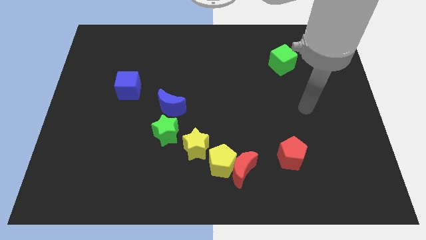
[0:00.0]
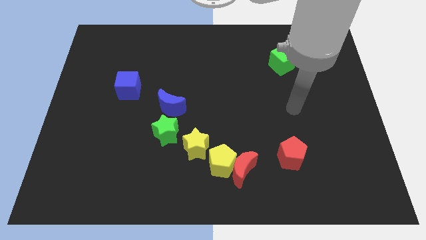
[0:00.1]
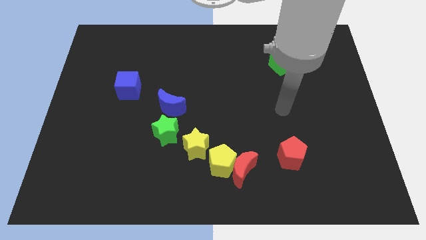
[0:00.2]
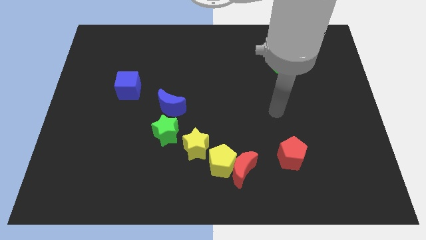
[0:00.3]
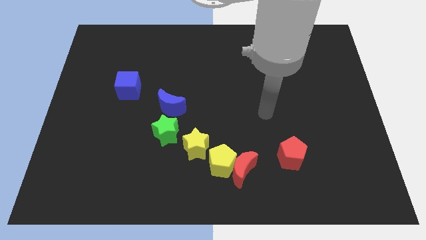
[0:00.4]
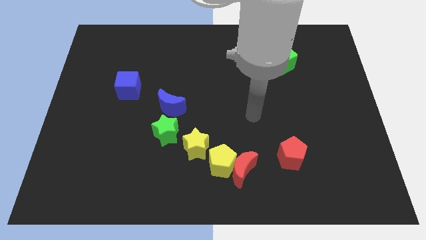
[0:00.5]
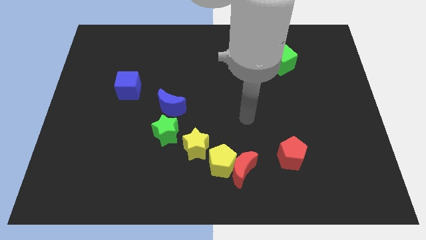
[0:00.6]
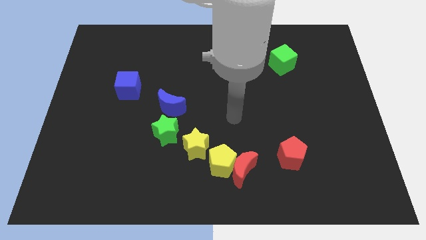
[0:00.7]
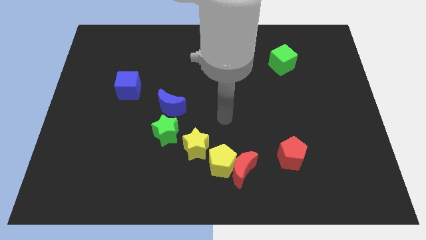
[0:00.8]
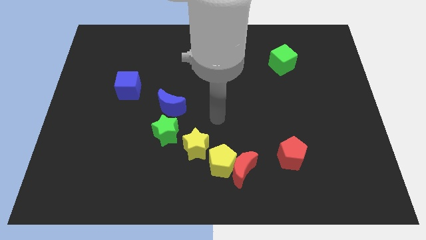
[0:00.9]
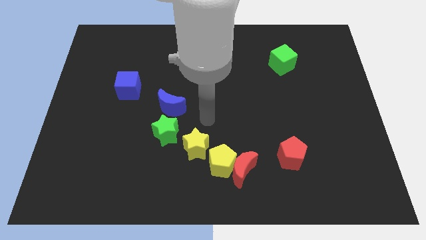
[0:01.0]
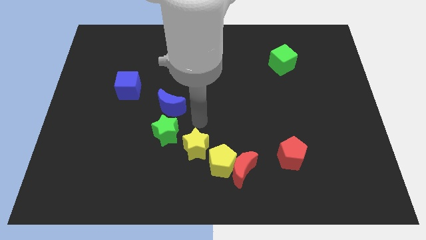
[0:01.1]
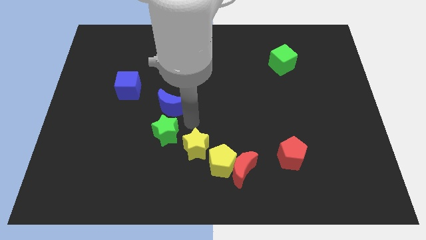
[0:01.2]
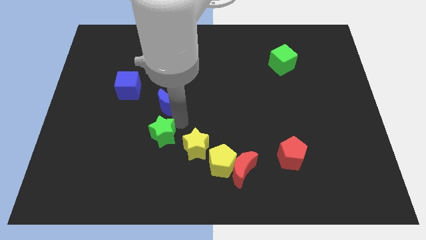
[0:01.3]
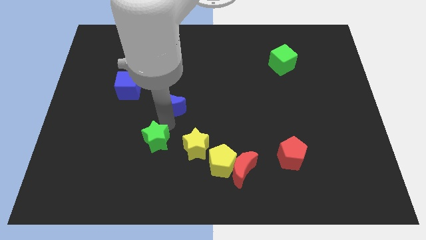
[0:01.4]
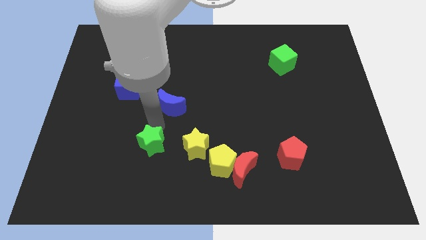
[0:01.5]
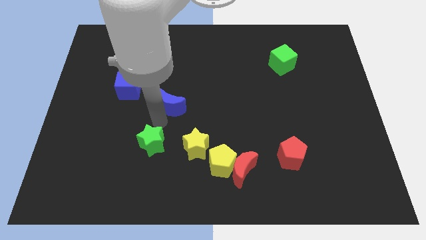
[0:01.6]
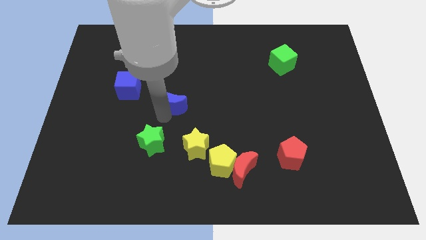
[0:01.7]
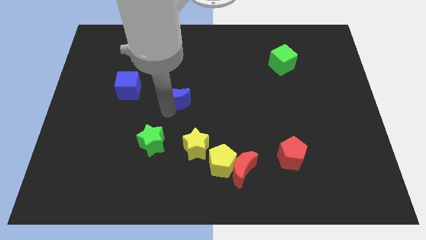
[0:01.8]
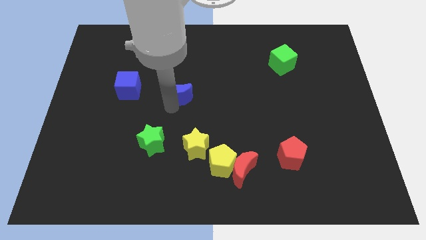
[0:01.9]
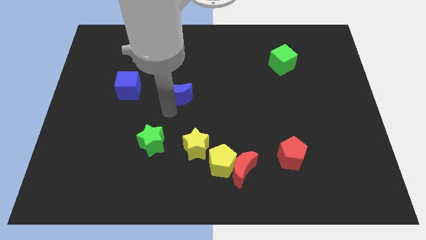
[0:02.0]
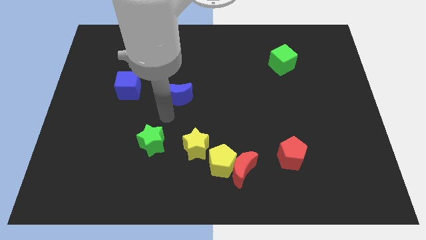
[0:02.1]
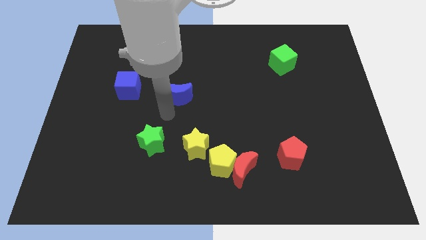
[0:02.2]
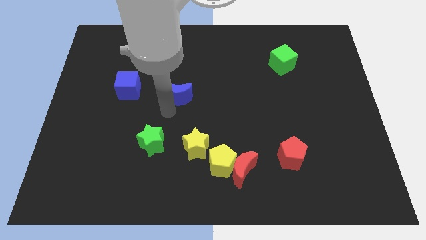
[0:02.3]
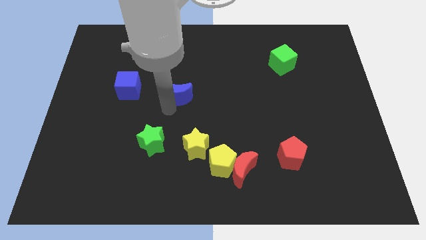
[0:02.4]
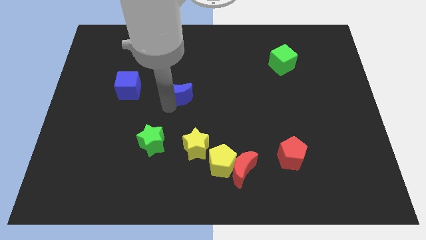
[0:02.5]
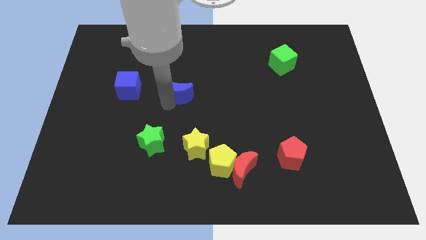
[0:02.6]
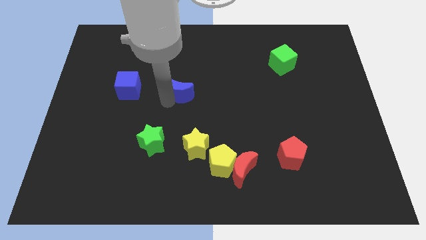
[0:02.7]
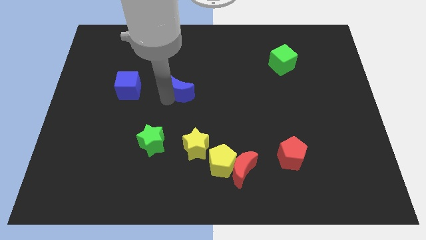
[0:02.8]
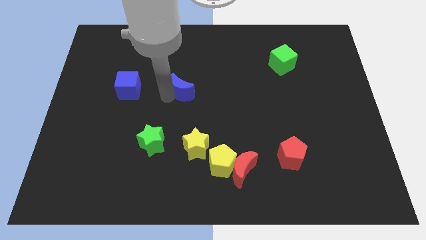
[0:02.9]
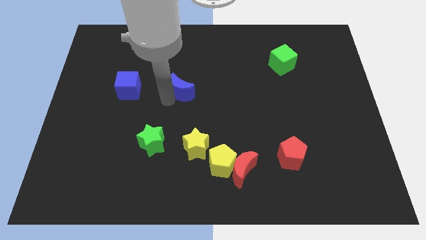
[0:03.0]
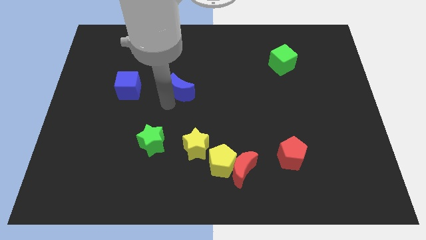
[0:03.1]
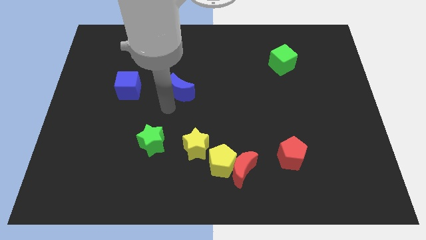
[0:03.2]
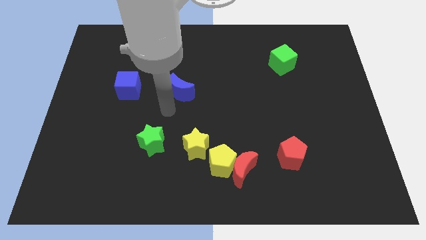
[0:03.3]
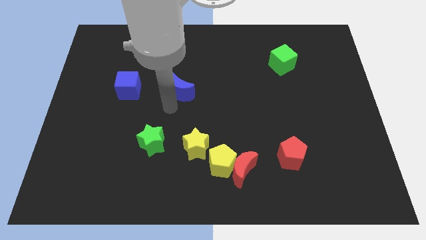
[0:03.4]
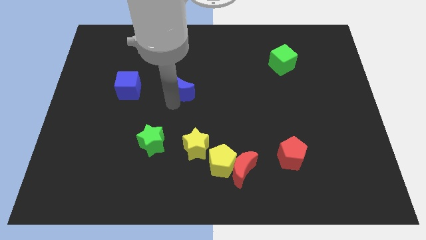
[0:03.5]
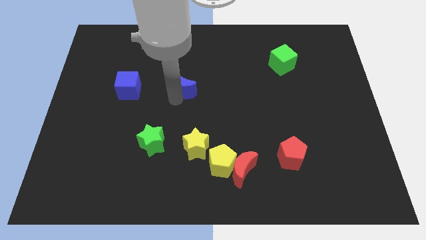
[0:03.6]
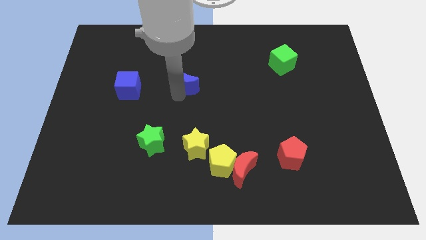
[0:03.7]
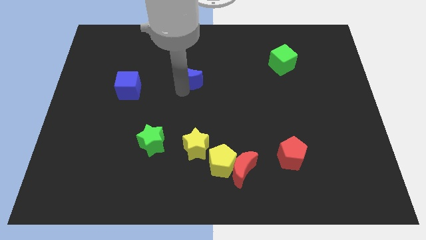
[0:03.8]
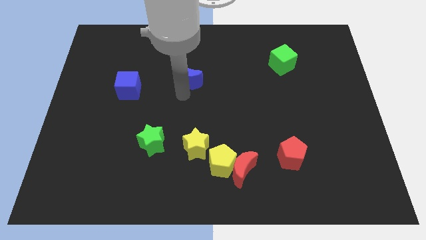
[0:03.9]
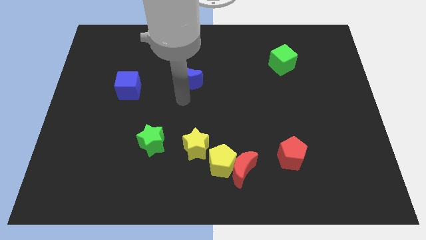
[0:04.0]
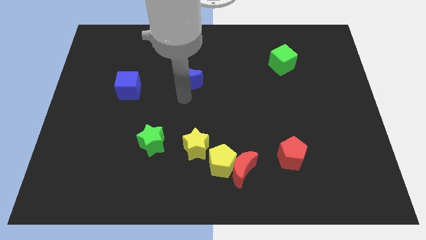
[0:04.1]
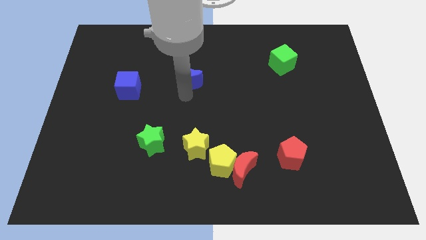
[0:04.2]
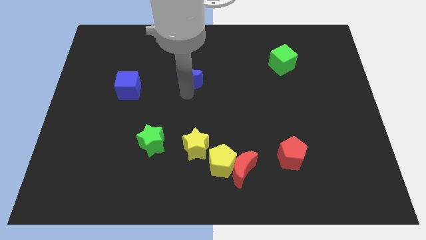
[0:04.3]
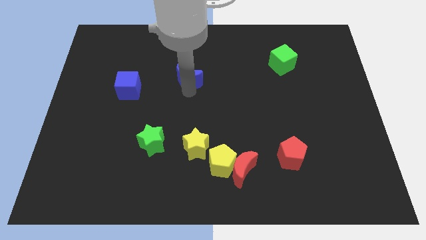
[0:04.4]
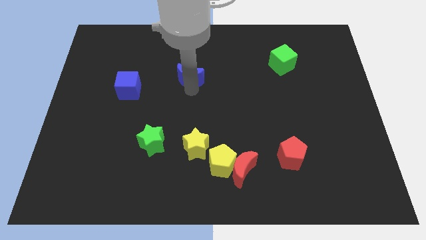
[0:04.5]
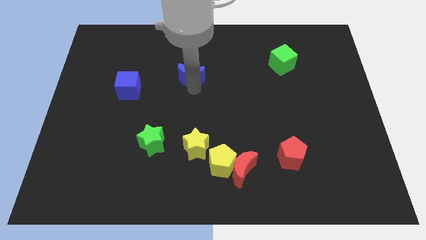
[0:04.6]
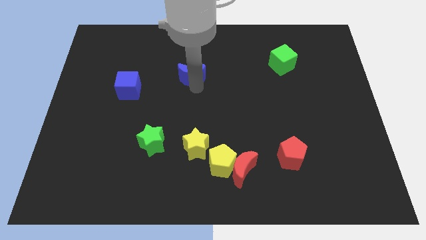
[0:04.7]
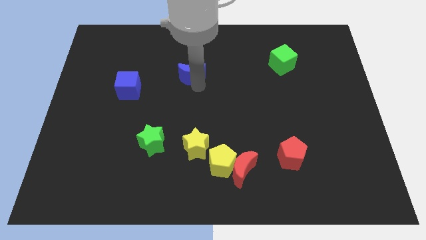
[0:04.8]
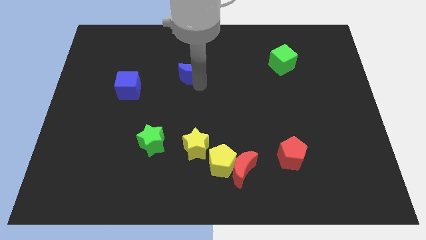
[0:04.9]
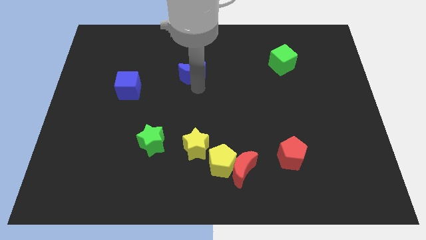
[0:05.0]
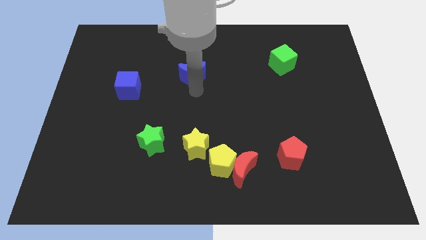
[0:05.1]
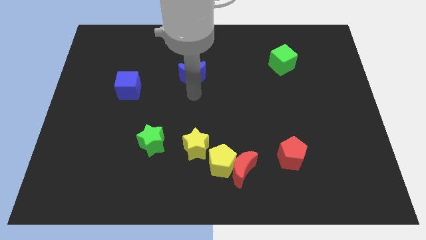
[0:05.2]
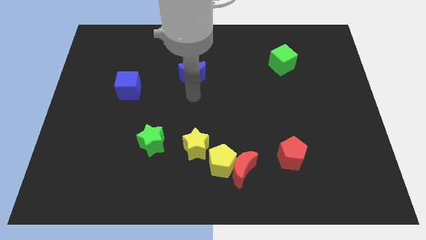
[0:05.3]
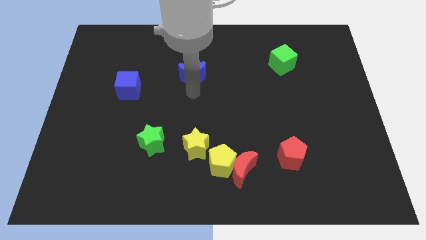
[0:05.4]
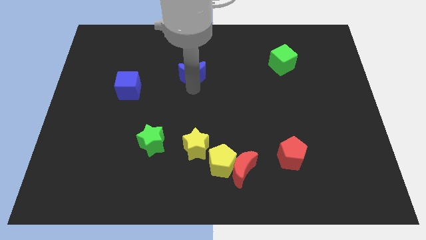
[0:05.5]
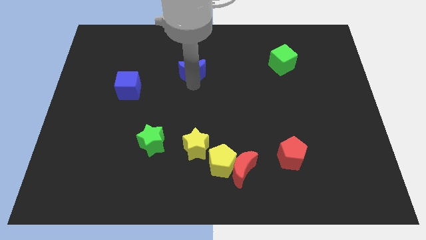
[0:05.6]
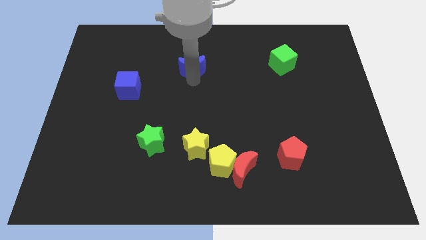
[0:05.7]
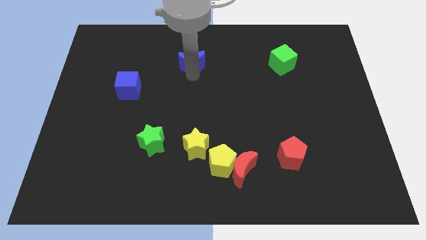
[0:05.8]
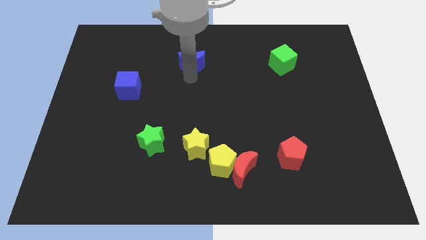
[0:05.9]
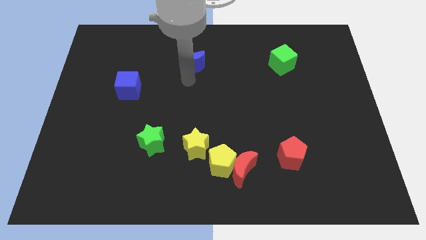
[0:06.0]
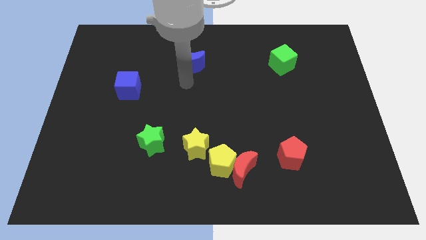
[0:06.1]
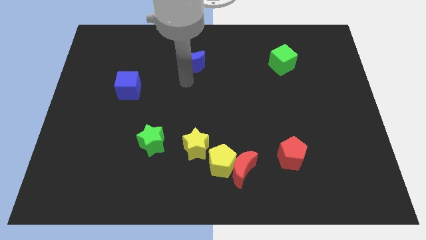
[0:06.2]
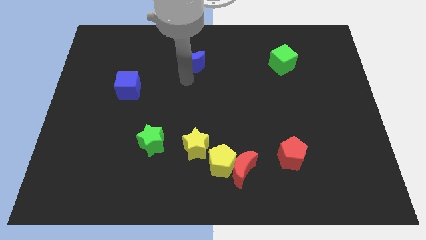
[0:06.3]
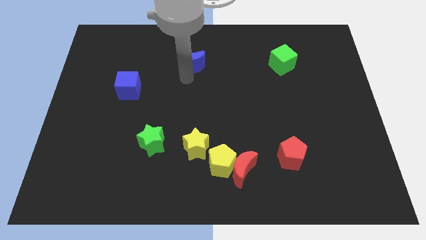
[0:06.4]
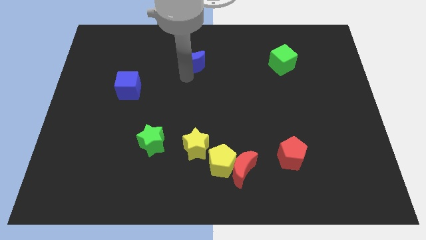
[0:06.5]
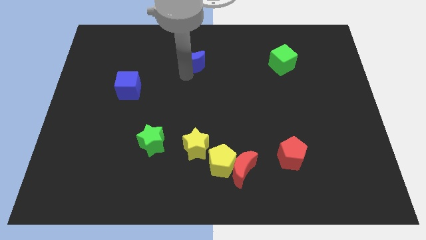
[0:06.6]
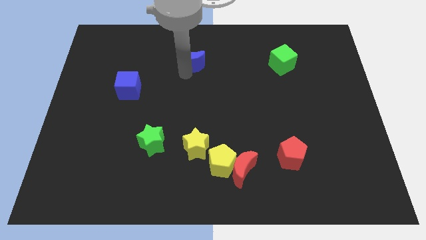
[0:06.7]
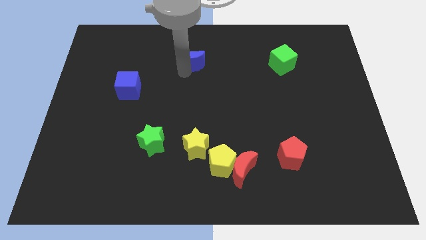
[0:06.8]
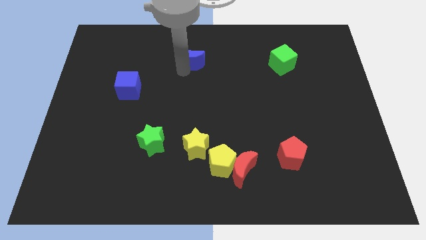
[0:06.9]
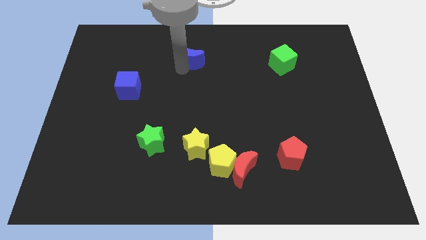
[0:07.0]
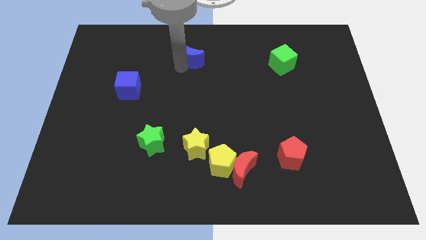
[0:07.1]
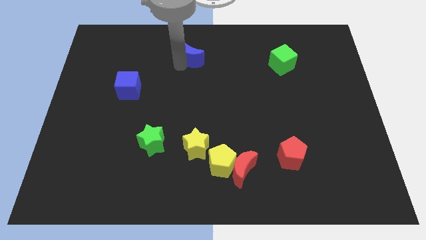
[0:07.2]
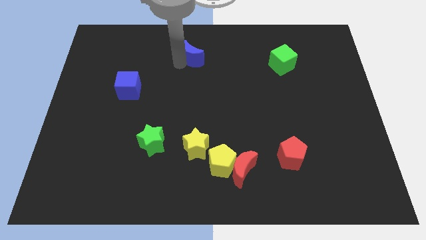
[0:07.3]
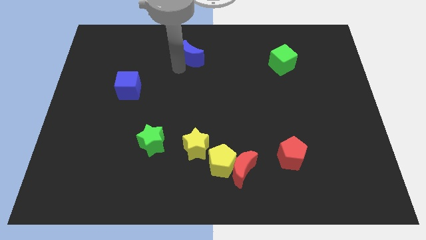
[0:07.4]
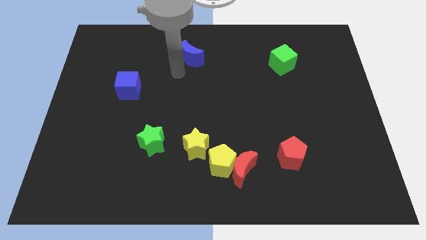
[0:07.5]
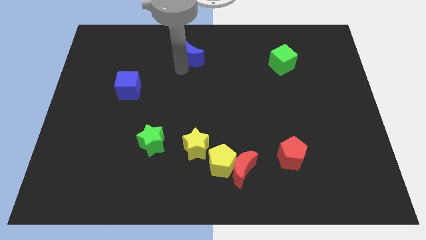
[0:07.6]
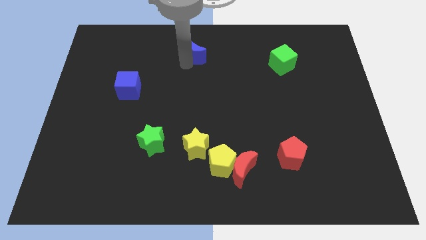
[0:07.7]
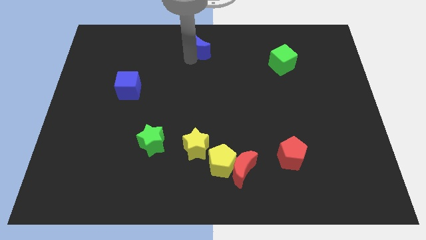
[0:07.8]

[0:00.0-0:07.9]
slide the blue moon to the towards your base

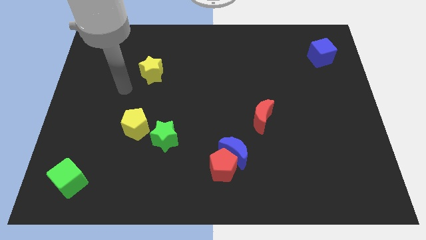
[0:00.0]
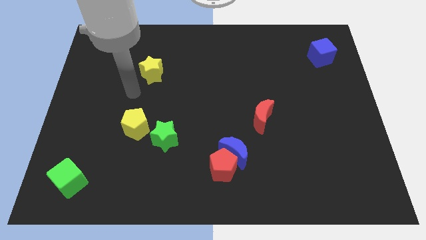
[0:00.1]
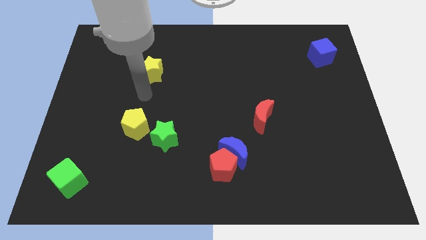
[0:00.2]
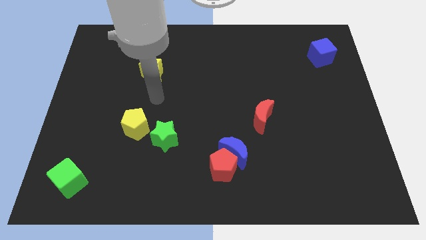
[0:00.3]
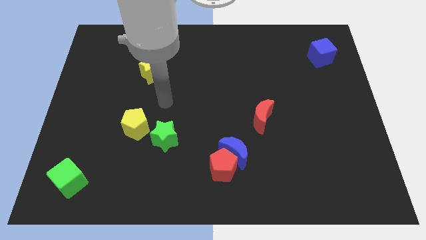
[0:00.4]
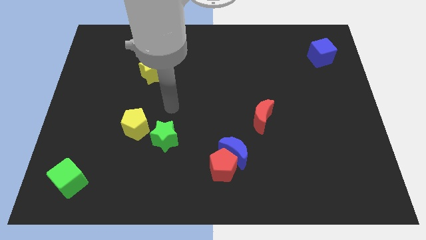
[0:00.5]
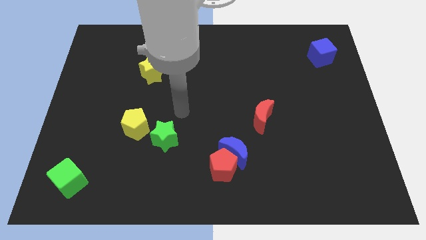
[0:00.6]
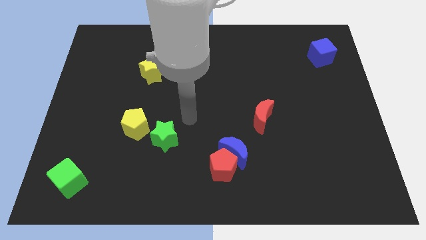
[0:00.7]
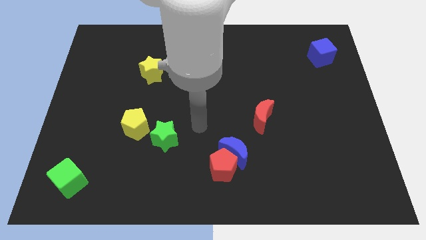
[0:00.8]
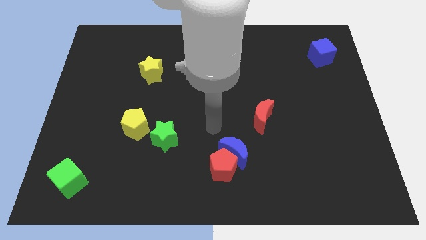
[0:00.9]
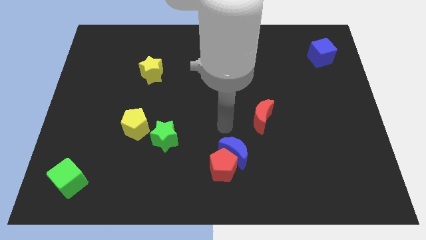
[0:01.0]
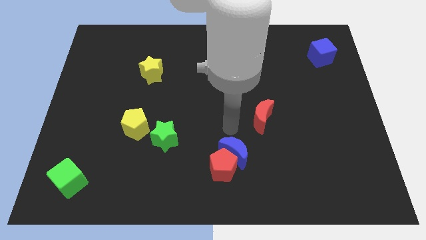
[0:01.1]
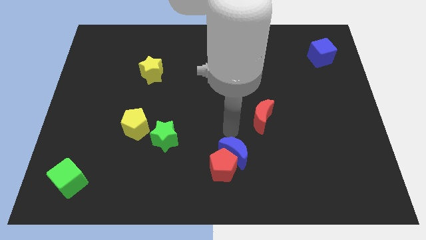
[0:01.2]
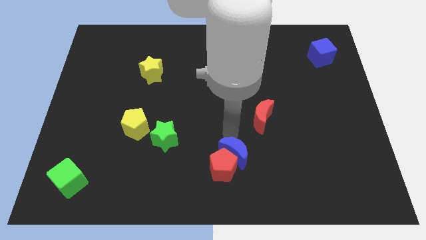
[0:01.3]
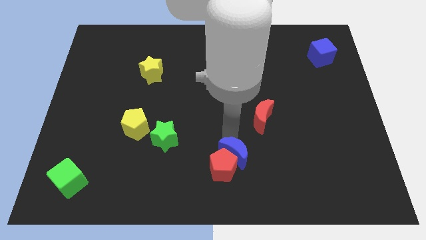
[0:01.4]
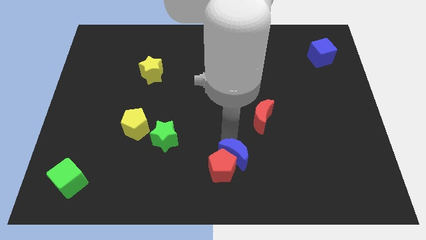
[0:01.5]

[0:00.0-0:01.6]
push the blue moon to the bottom side
